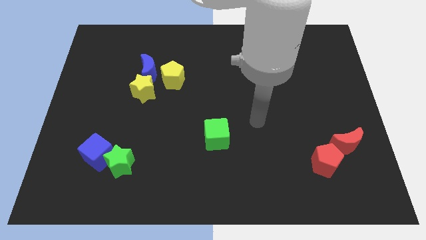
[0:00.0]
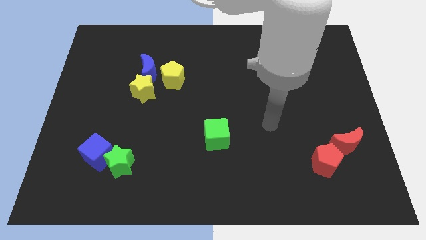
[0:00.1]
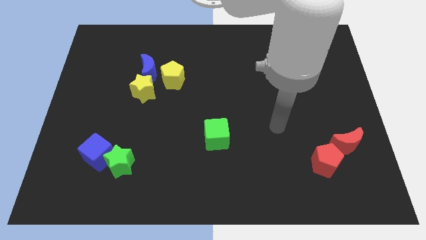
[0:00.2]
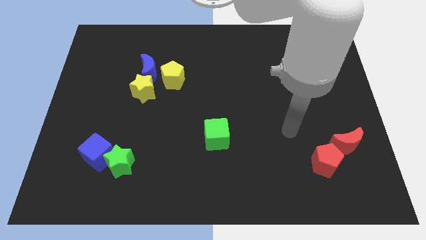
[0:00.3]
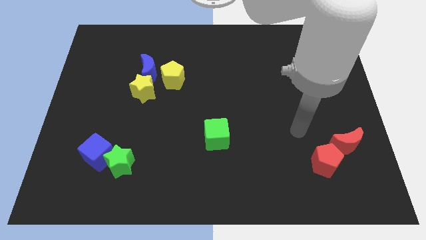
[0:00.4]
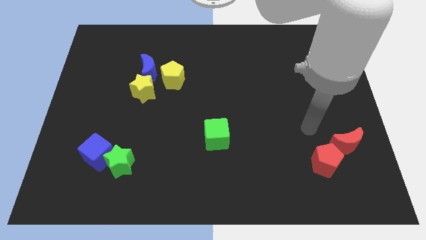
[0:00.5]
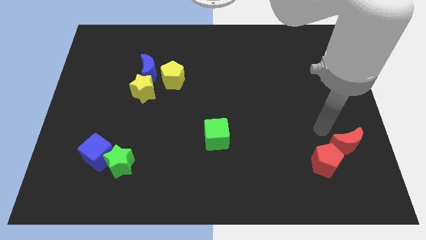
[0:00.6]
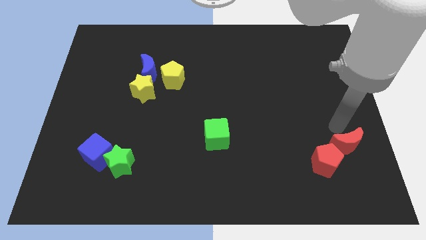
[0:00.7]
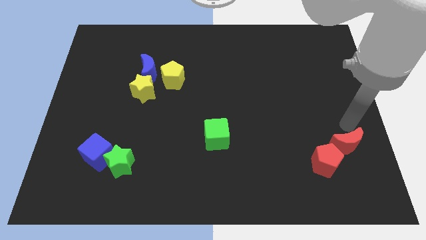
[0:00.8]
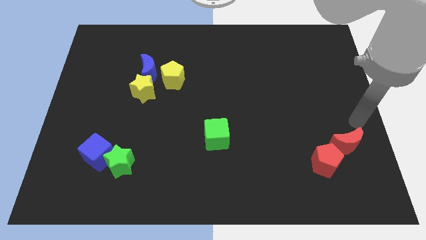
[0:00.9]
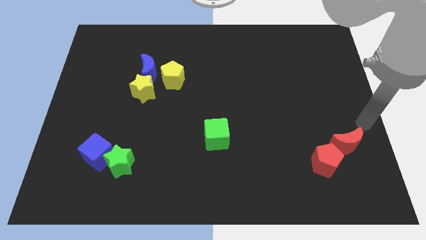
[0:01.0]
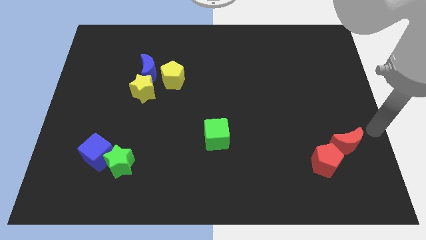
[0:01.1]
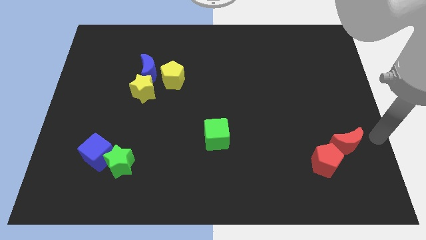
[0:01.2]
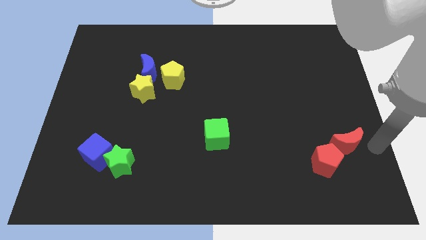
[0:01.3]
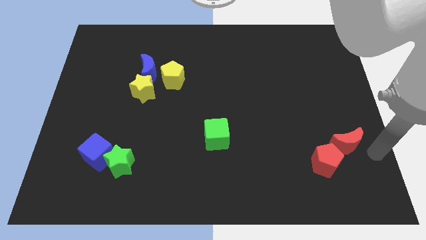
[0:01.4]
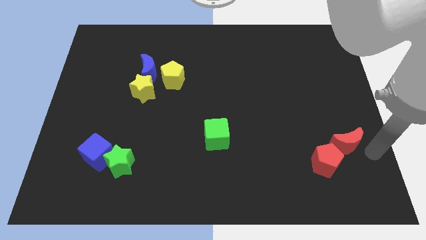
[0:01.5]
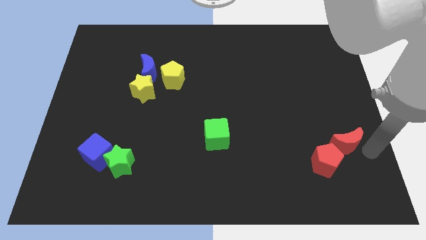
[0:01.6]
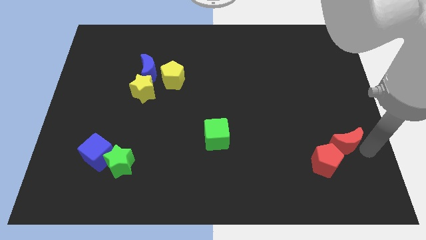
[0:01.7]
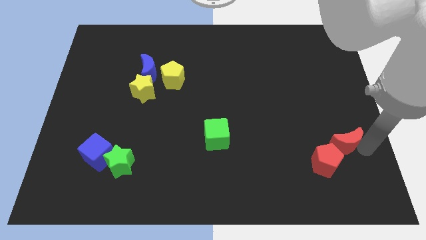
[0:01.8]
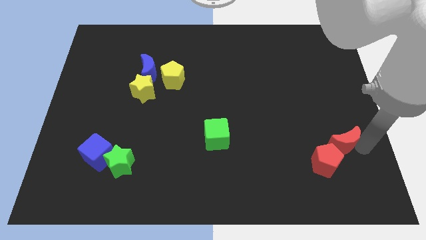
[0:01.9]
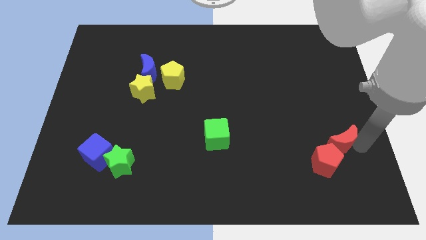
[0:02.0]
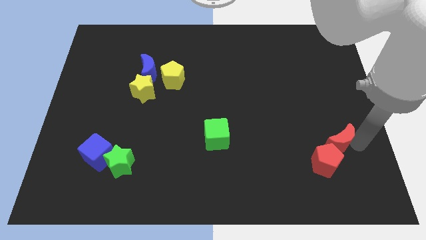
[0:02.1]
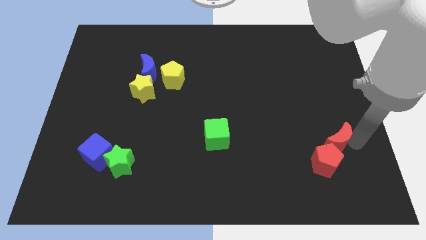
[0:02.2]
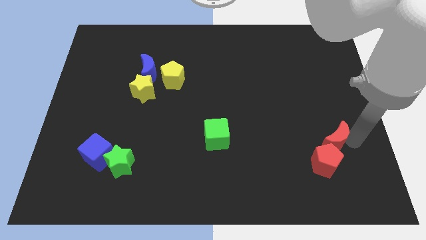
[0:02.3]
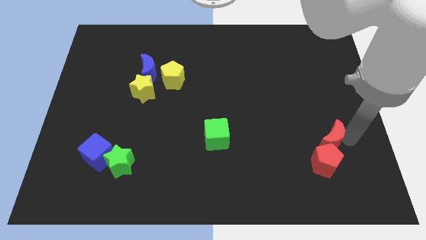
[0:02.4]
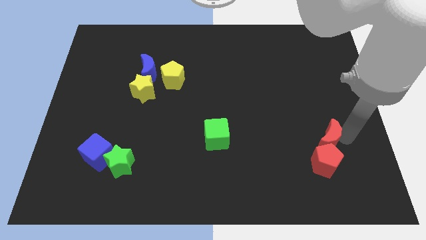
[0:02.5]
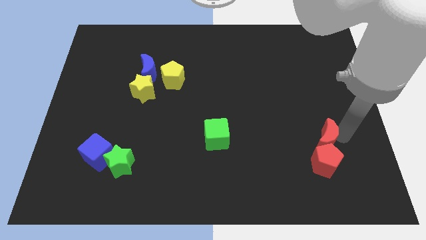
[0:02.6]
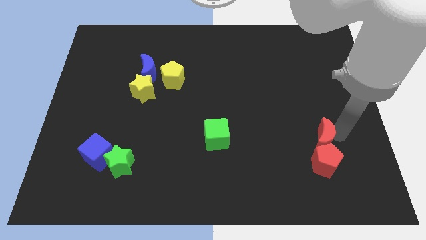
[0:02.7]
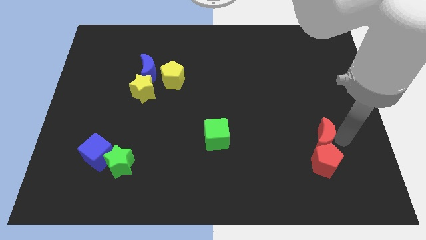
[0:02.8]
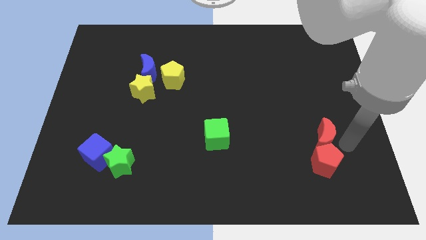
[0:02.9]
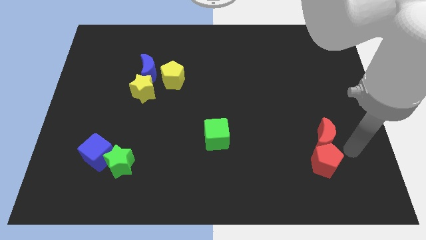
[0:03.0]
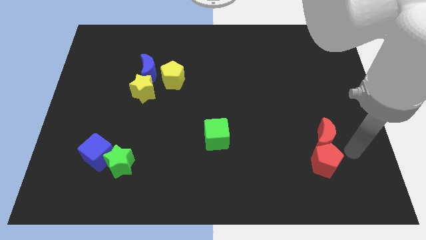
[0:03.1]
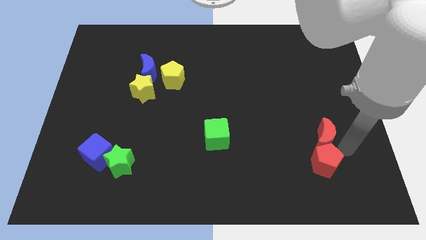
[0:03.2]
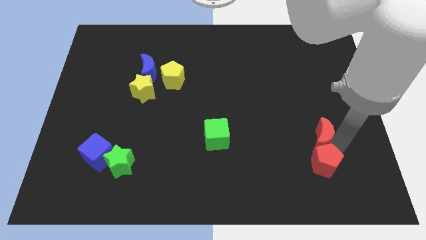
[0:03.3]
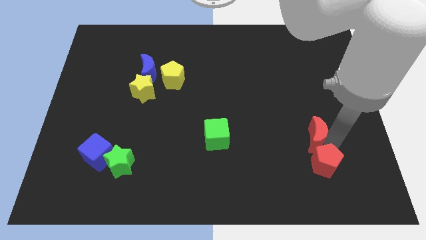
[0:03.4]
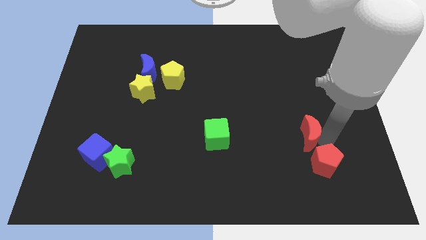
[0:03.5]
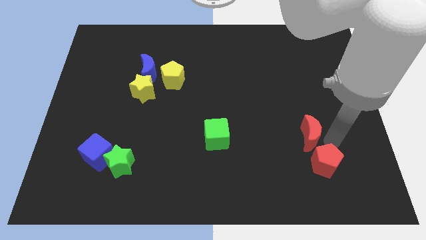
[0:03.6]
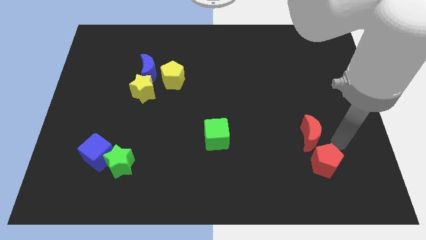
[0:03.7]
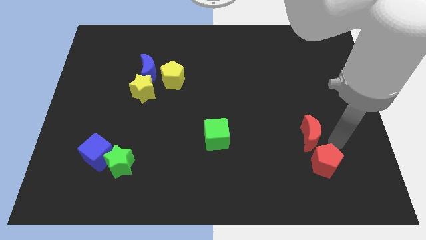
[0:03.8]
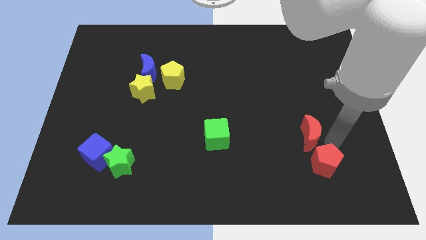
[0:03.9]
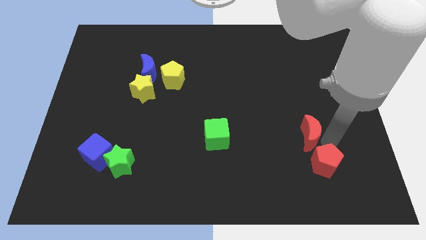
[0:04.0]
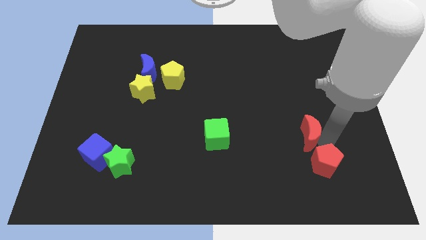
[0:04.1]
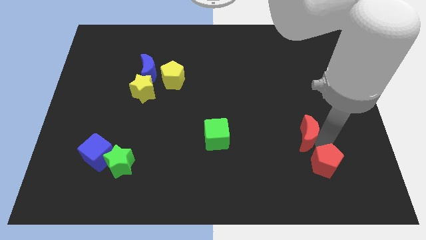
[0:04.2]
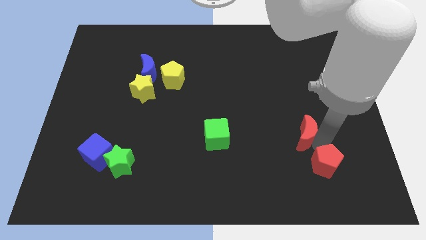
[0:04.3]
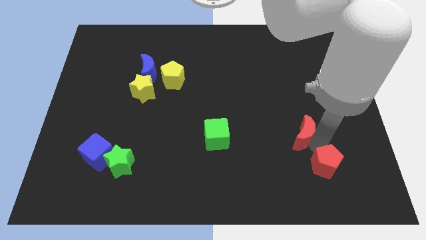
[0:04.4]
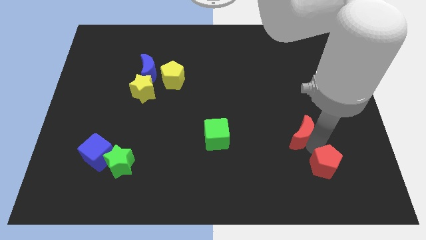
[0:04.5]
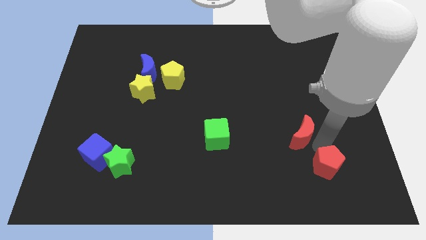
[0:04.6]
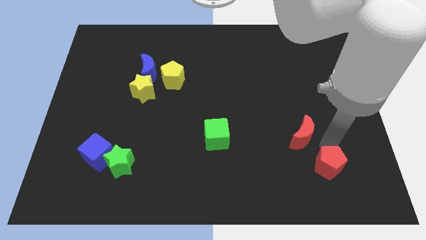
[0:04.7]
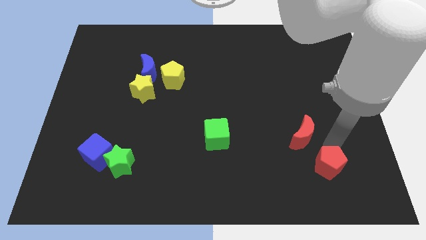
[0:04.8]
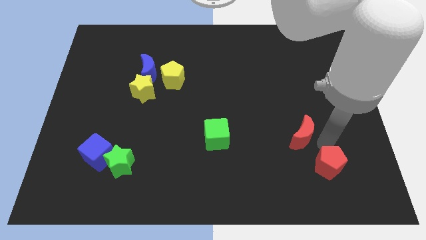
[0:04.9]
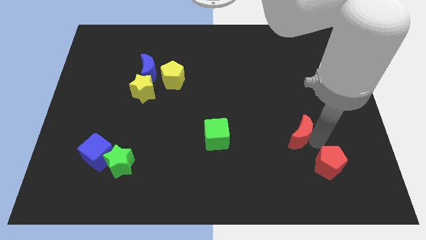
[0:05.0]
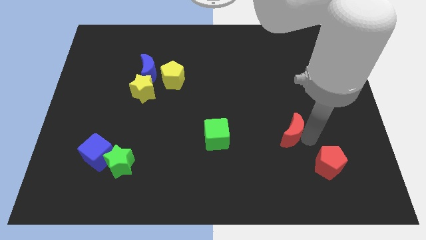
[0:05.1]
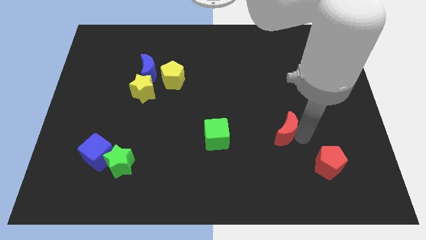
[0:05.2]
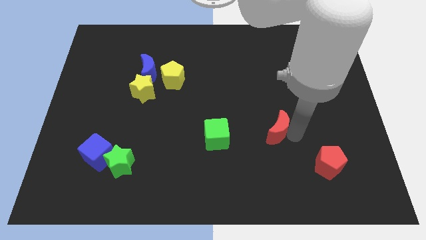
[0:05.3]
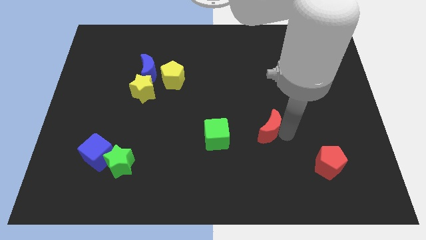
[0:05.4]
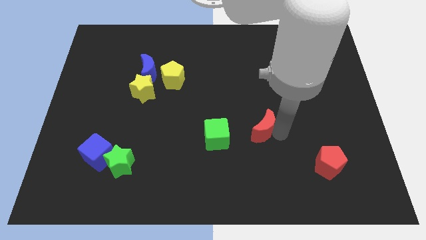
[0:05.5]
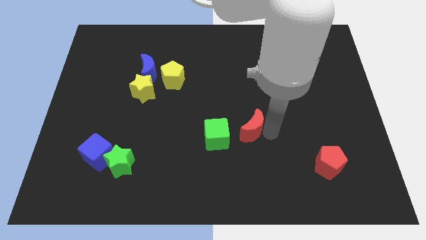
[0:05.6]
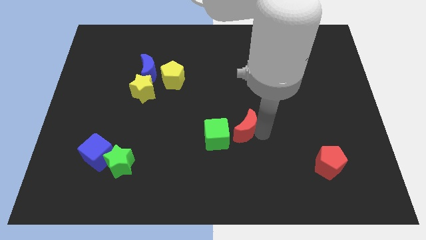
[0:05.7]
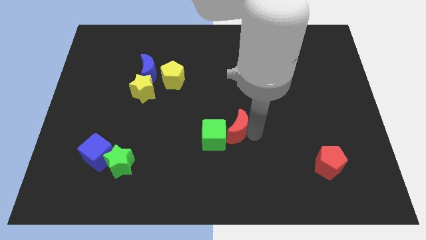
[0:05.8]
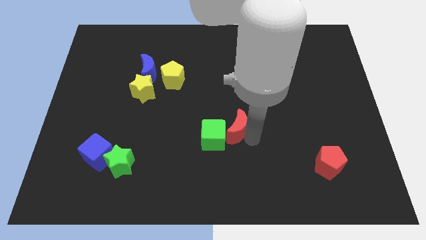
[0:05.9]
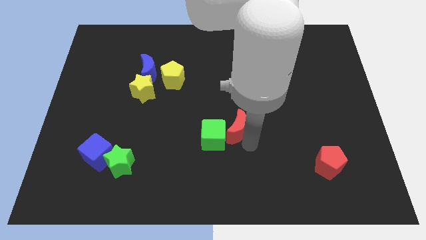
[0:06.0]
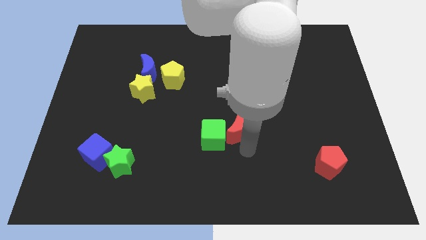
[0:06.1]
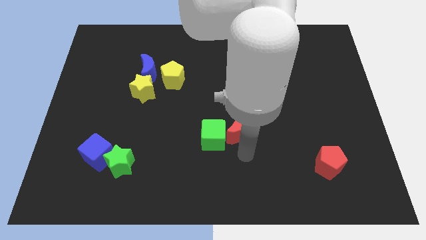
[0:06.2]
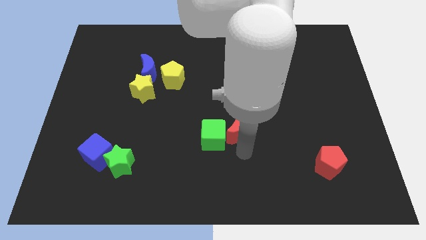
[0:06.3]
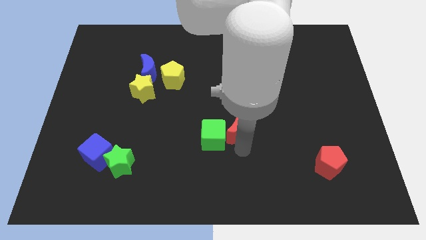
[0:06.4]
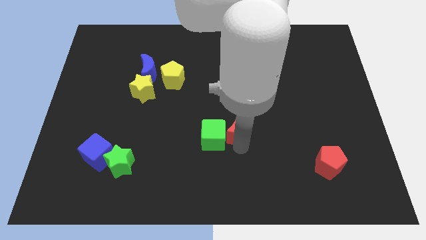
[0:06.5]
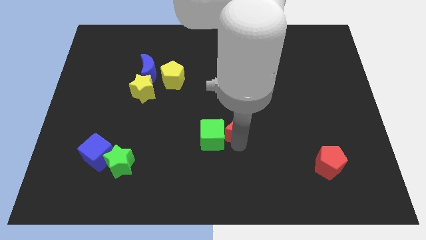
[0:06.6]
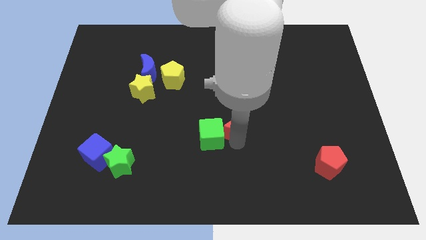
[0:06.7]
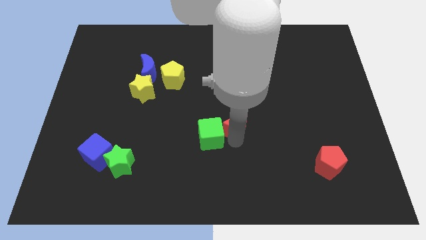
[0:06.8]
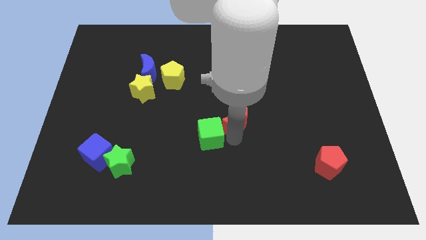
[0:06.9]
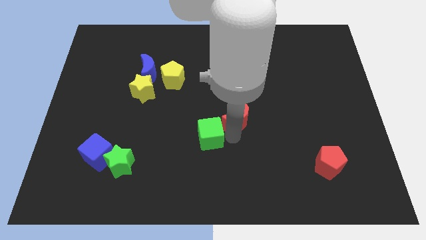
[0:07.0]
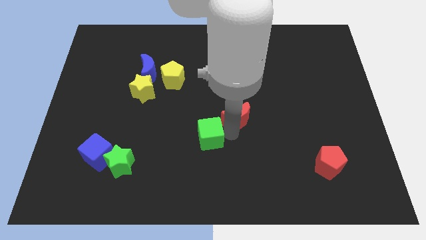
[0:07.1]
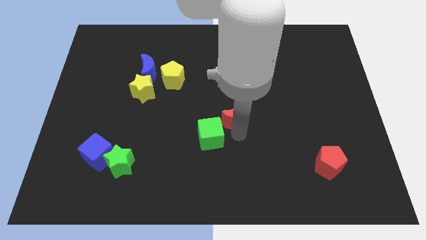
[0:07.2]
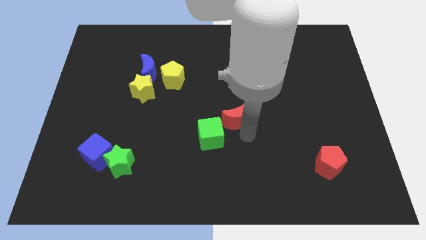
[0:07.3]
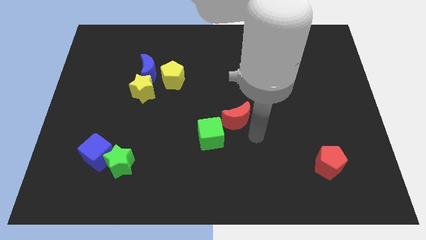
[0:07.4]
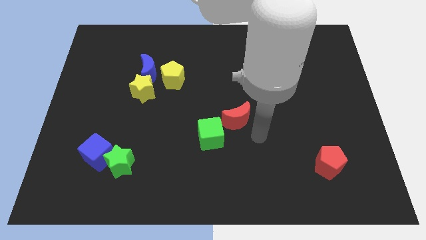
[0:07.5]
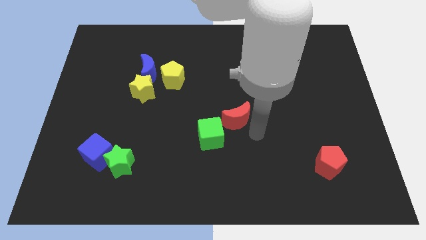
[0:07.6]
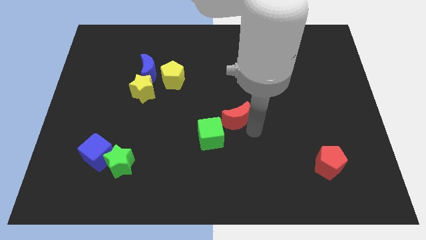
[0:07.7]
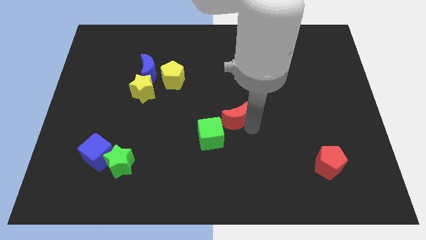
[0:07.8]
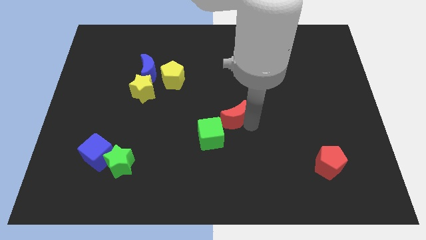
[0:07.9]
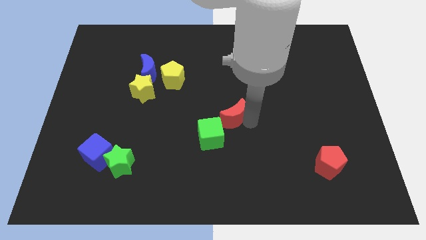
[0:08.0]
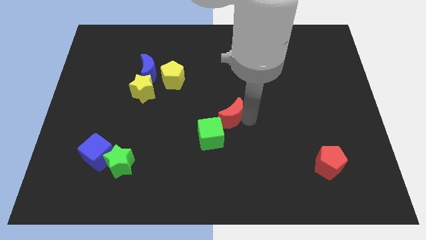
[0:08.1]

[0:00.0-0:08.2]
push the red moon to the top side of the green cube
